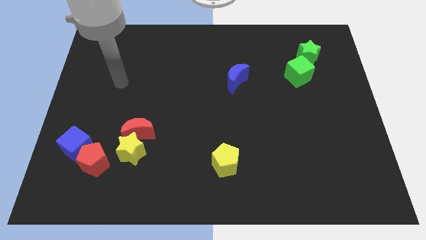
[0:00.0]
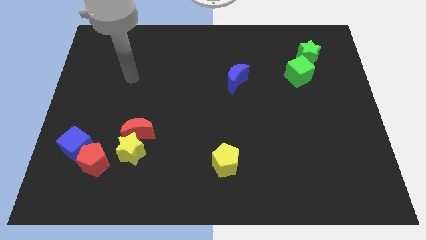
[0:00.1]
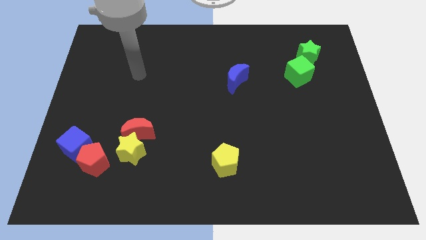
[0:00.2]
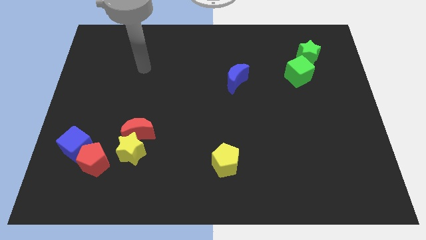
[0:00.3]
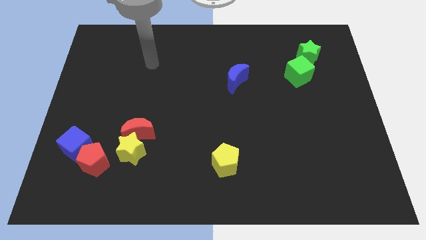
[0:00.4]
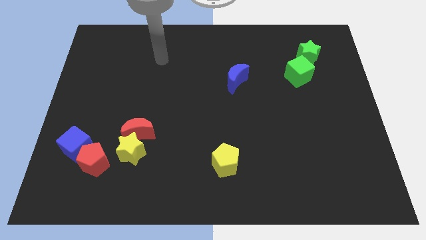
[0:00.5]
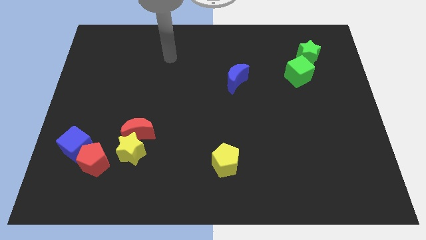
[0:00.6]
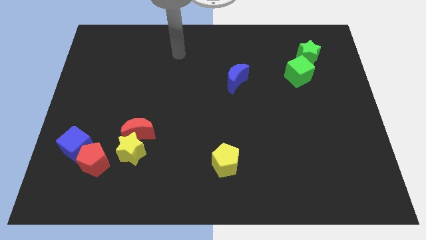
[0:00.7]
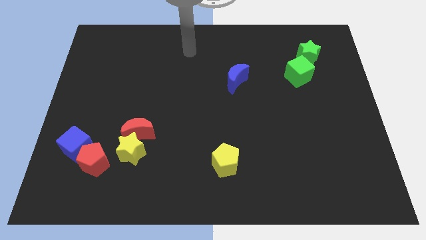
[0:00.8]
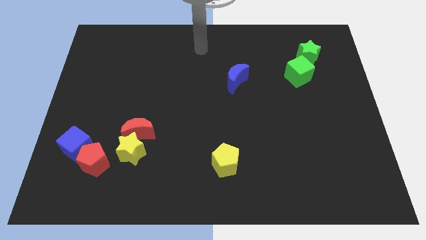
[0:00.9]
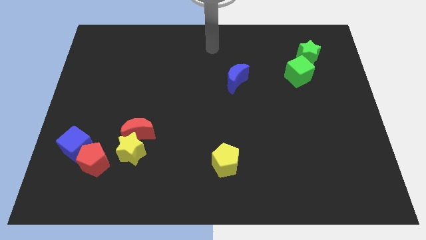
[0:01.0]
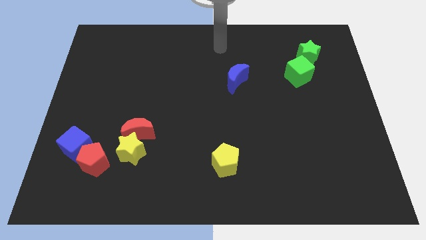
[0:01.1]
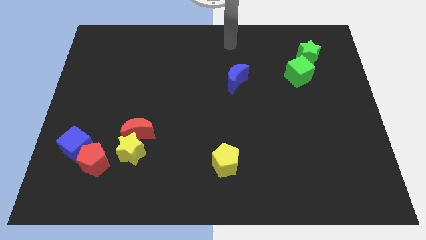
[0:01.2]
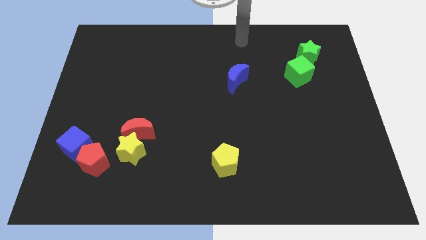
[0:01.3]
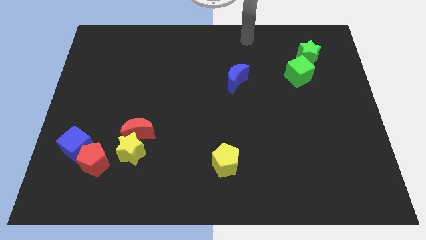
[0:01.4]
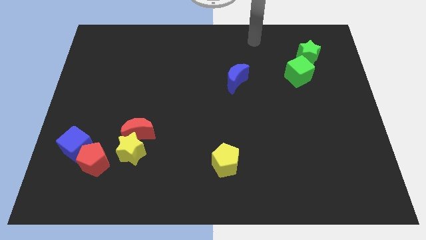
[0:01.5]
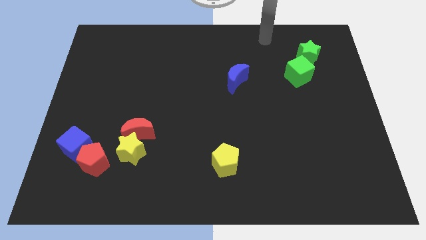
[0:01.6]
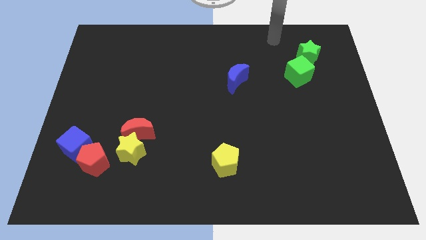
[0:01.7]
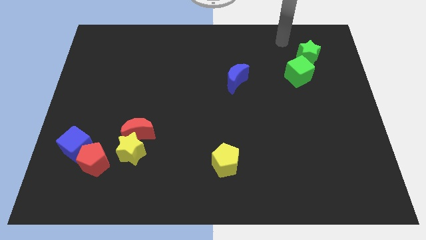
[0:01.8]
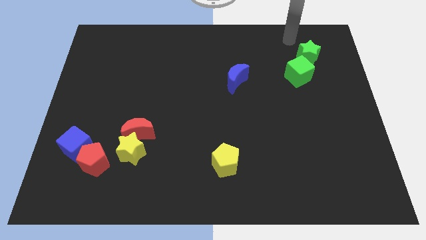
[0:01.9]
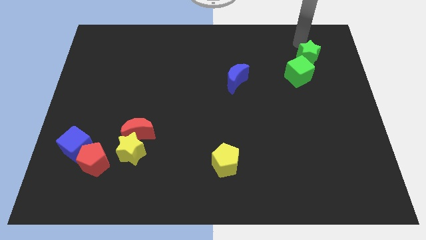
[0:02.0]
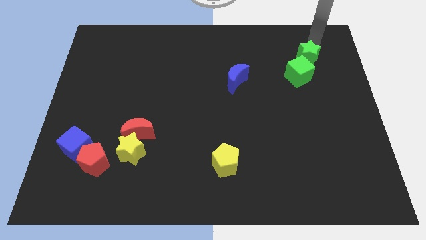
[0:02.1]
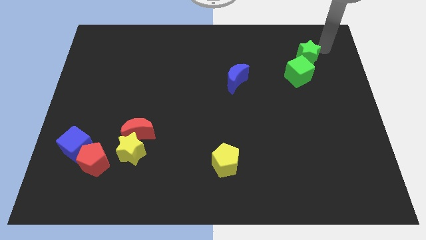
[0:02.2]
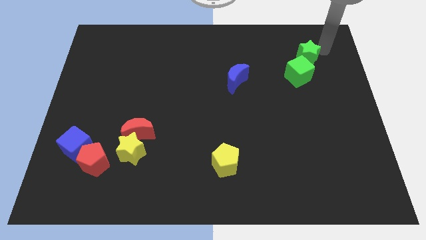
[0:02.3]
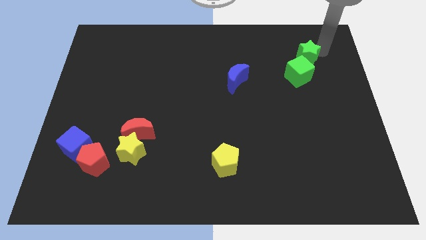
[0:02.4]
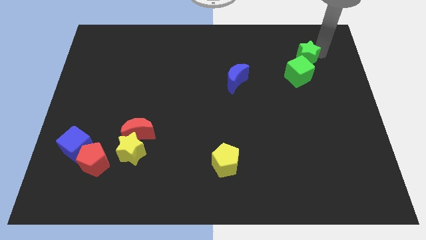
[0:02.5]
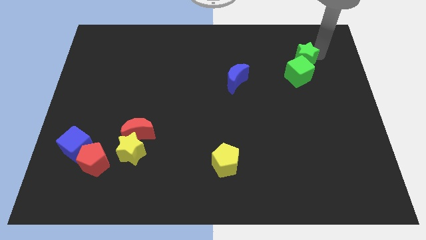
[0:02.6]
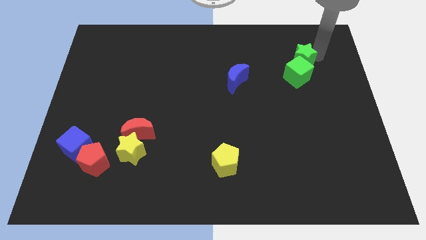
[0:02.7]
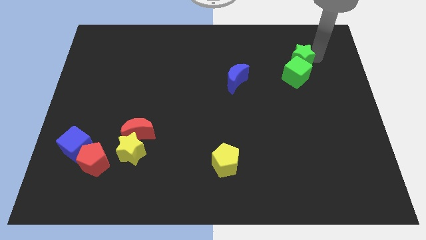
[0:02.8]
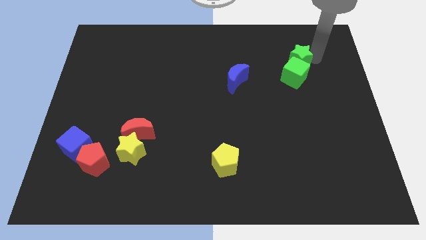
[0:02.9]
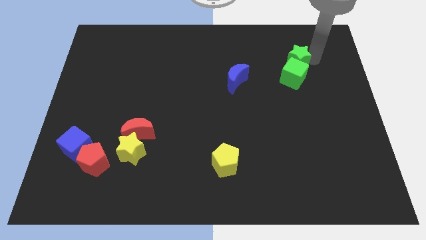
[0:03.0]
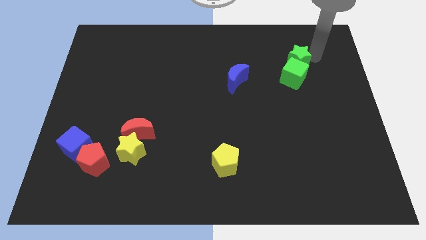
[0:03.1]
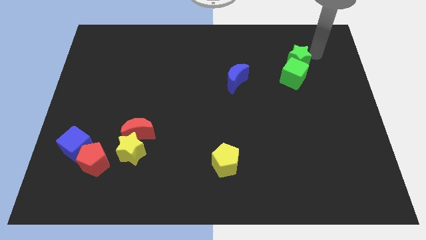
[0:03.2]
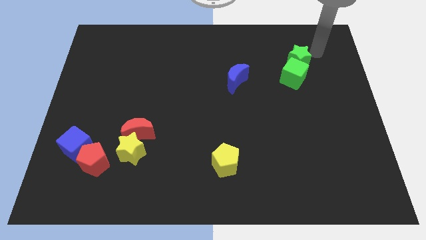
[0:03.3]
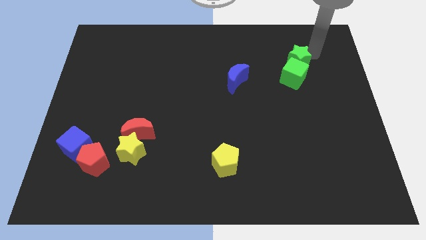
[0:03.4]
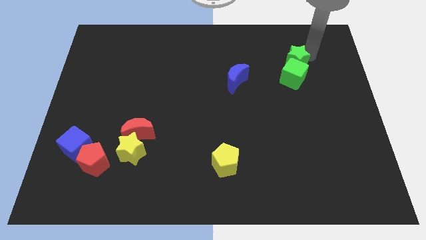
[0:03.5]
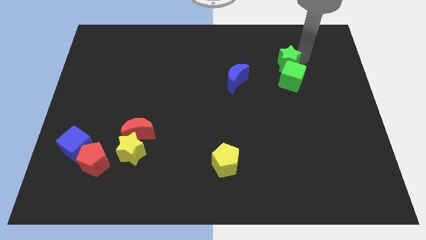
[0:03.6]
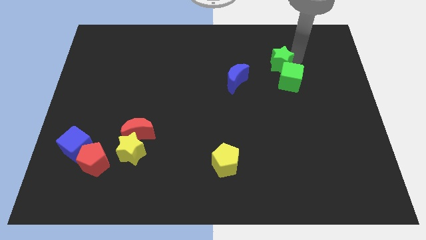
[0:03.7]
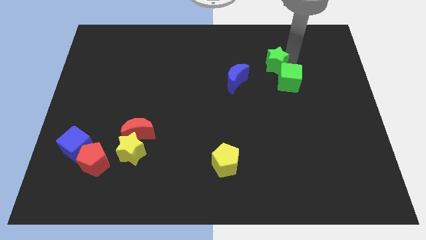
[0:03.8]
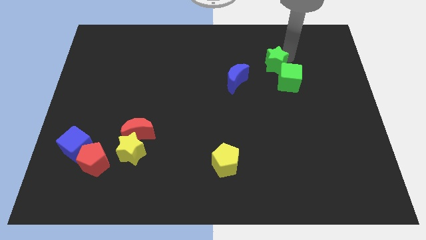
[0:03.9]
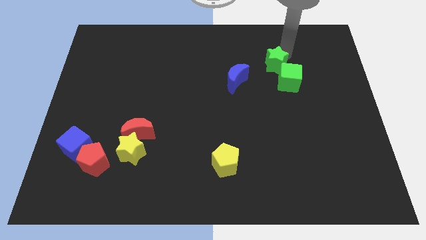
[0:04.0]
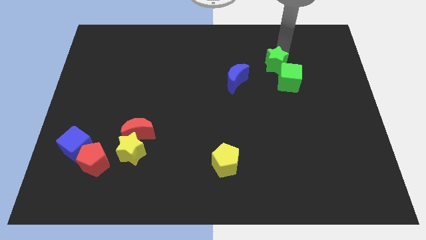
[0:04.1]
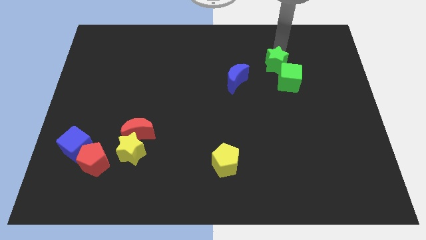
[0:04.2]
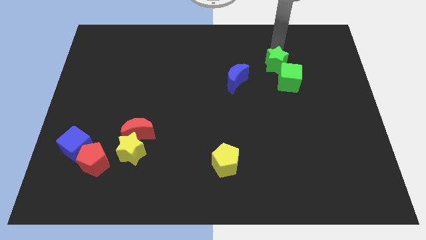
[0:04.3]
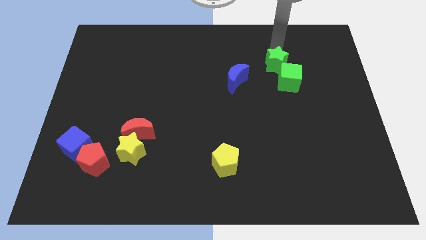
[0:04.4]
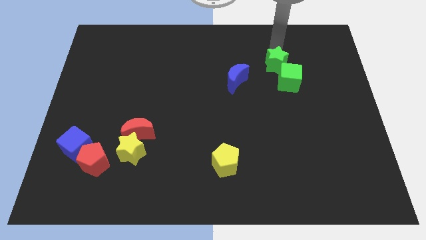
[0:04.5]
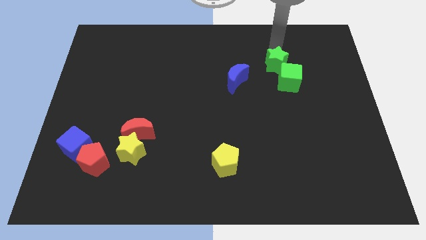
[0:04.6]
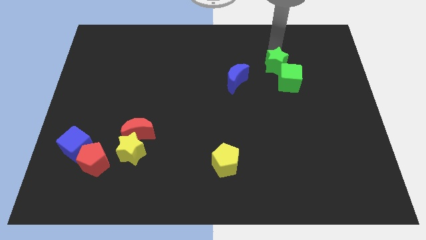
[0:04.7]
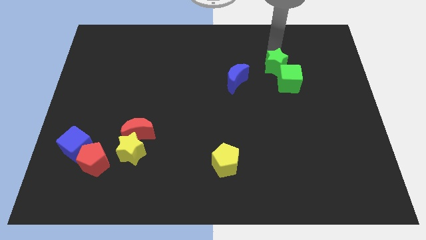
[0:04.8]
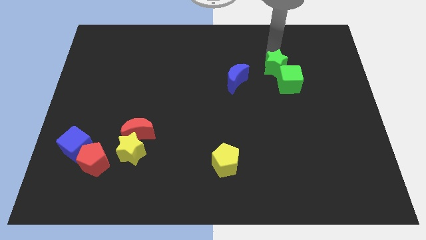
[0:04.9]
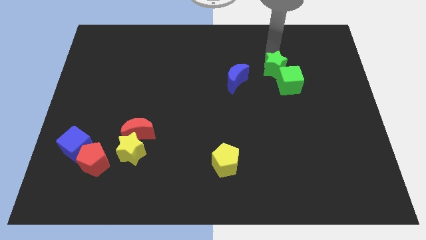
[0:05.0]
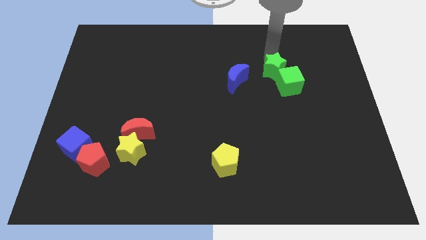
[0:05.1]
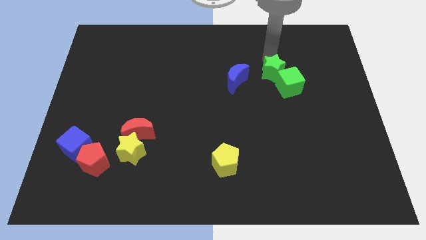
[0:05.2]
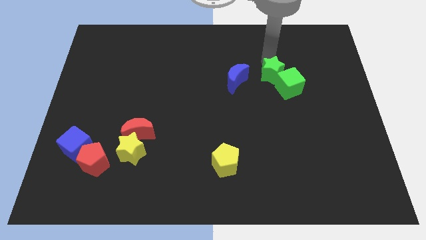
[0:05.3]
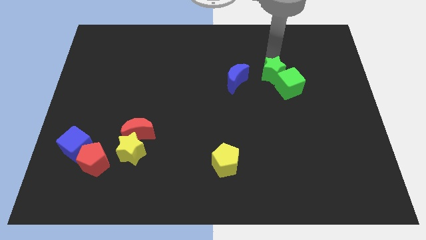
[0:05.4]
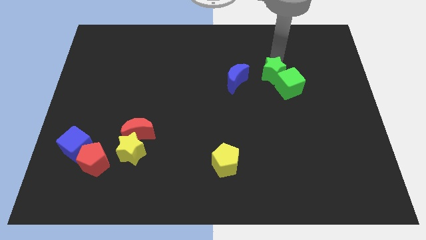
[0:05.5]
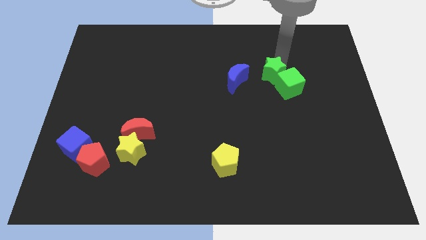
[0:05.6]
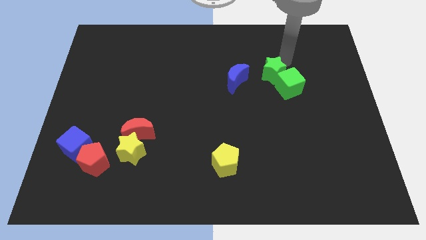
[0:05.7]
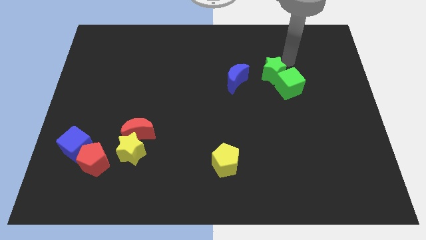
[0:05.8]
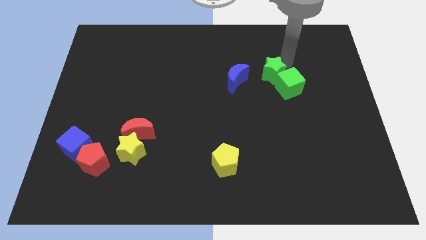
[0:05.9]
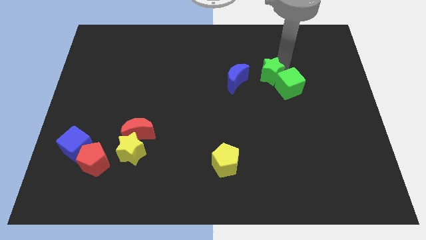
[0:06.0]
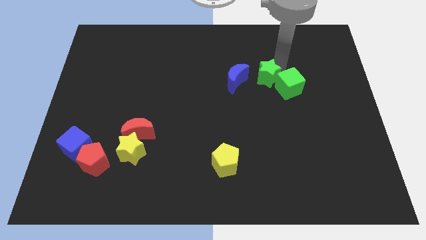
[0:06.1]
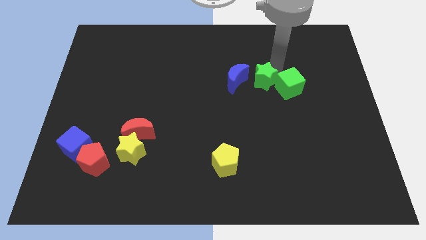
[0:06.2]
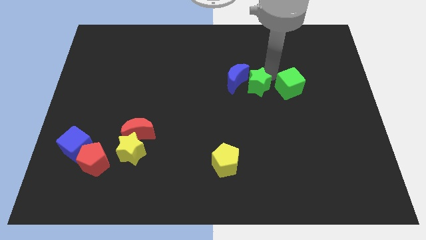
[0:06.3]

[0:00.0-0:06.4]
slide the green star to the center of the board
